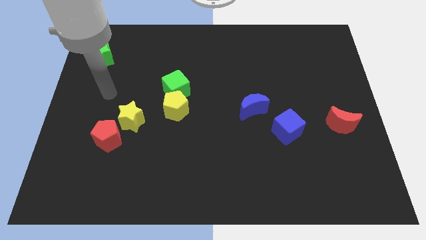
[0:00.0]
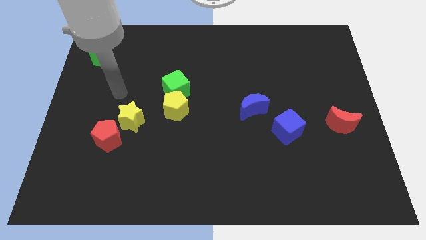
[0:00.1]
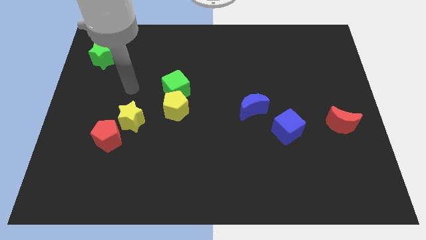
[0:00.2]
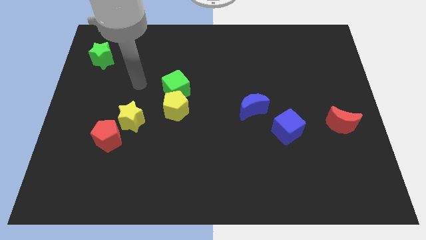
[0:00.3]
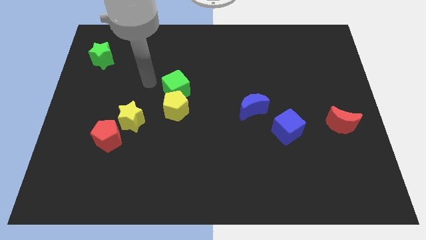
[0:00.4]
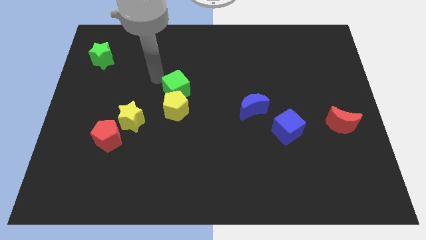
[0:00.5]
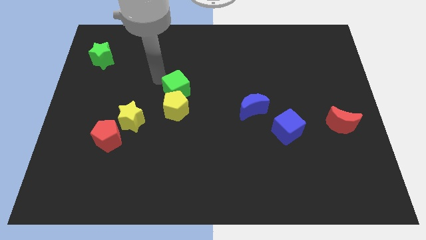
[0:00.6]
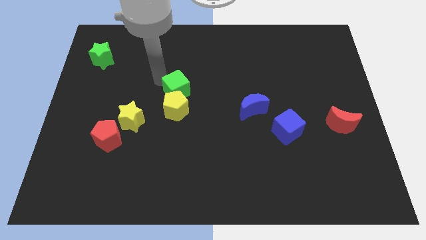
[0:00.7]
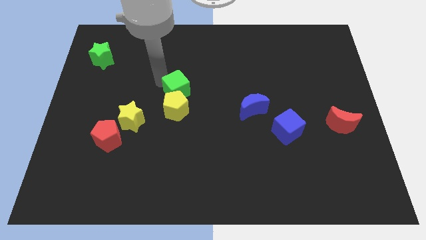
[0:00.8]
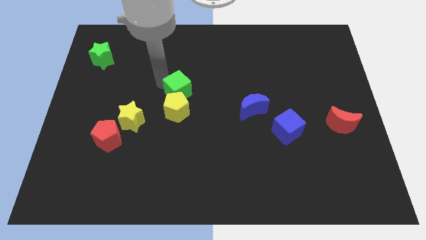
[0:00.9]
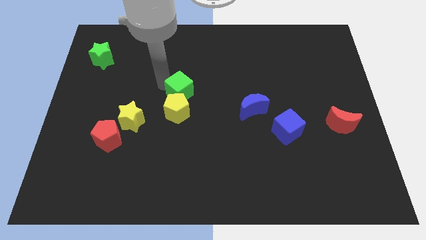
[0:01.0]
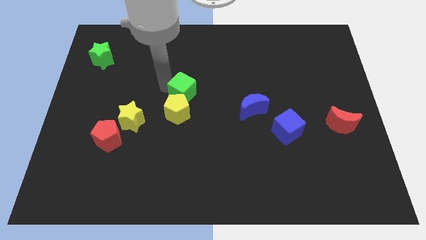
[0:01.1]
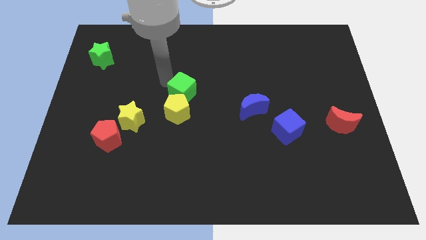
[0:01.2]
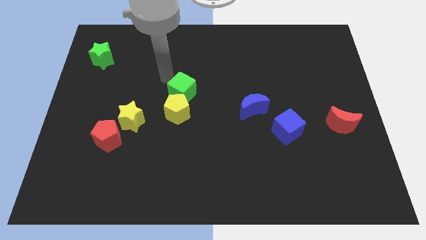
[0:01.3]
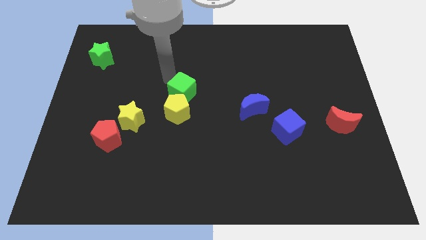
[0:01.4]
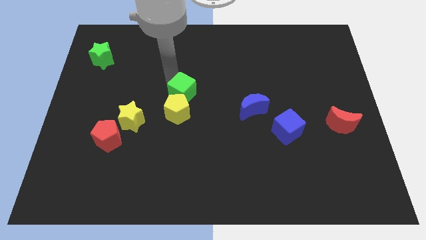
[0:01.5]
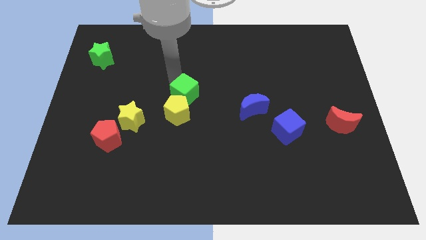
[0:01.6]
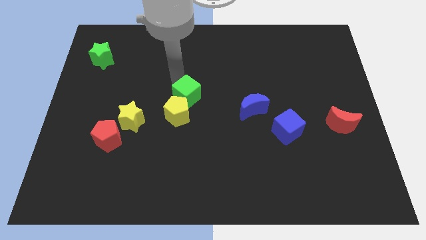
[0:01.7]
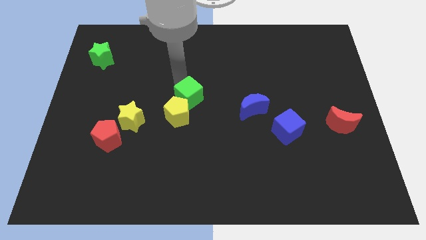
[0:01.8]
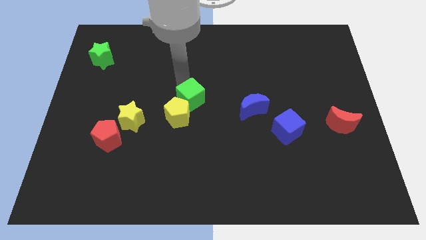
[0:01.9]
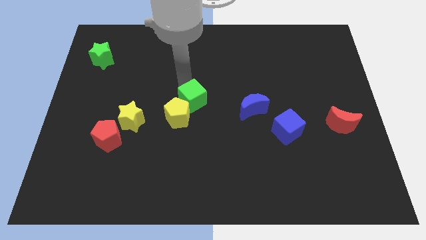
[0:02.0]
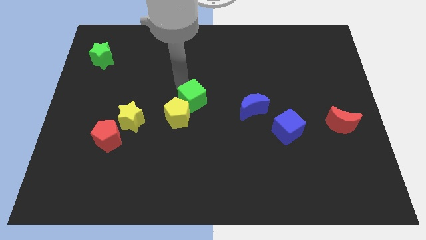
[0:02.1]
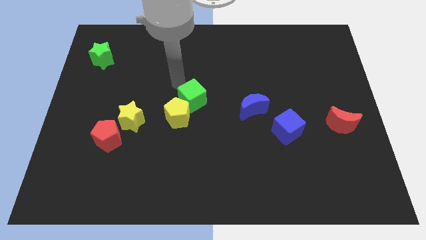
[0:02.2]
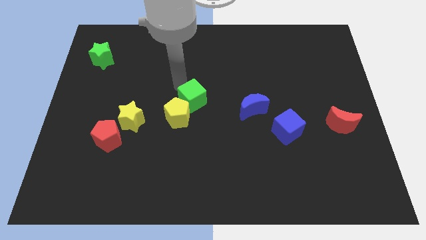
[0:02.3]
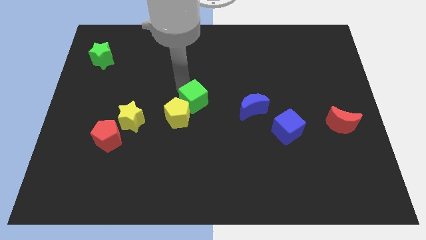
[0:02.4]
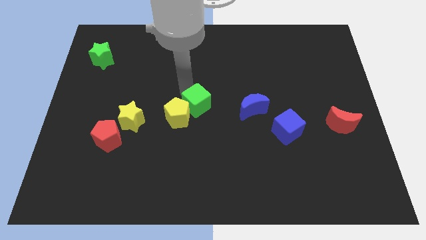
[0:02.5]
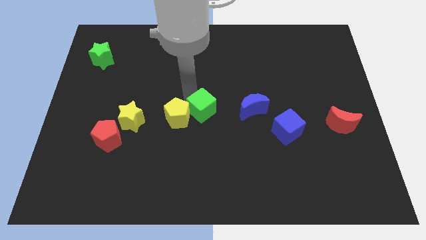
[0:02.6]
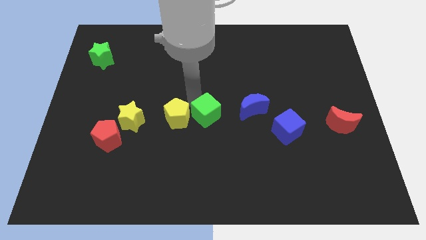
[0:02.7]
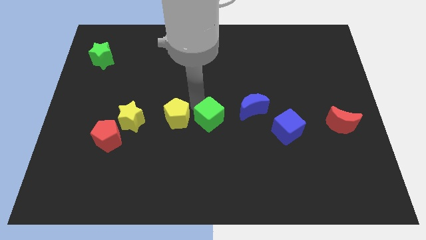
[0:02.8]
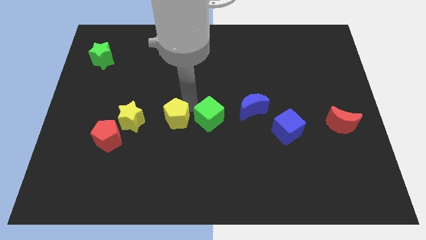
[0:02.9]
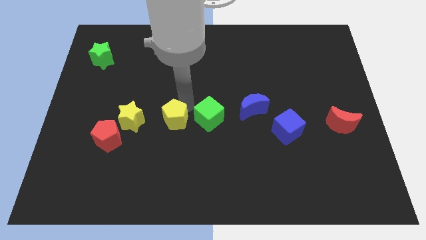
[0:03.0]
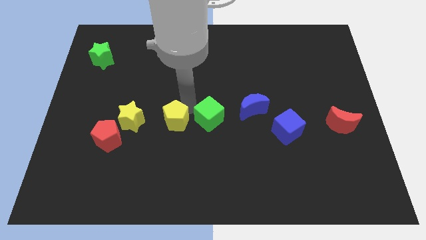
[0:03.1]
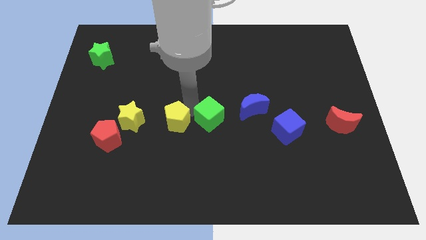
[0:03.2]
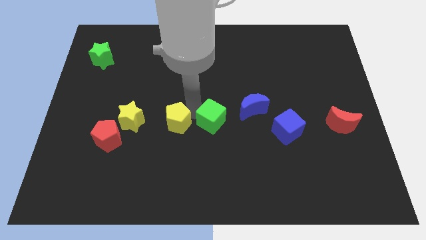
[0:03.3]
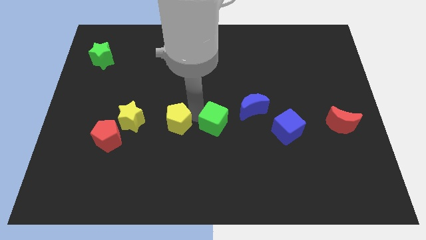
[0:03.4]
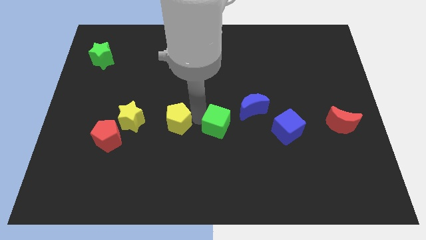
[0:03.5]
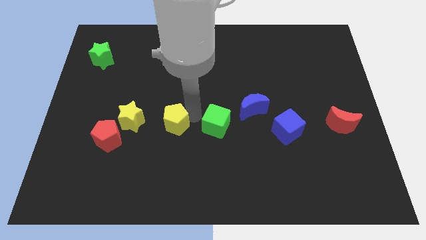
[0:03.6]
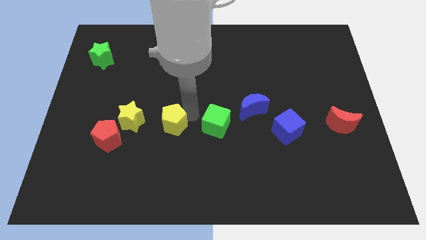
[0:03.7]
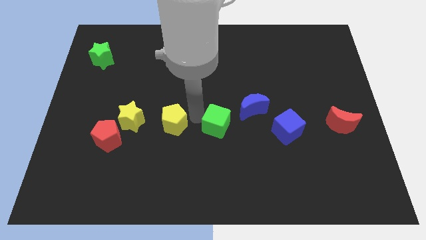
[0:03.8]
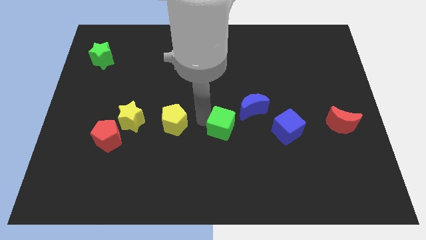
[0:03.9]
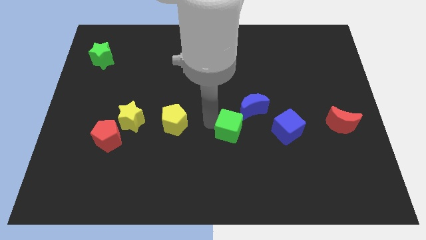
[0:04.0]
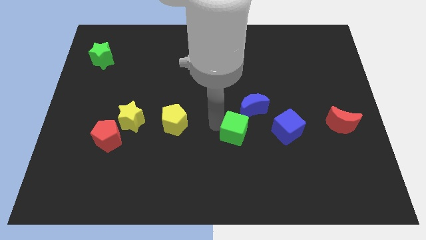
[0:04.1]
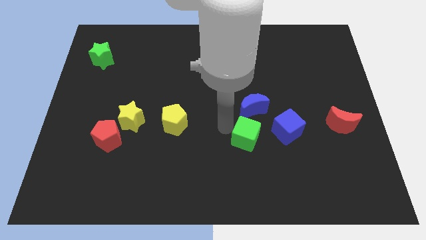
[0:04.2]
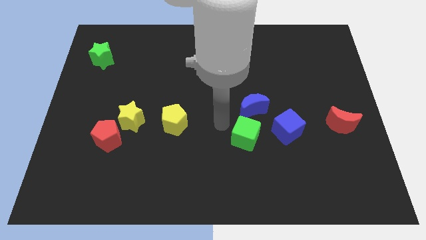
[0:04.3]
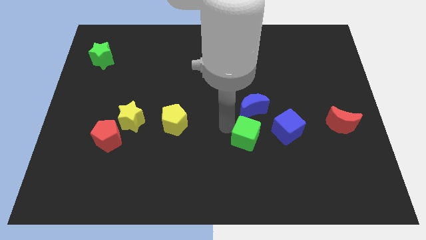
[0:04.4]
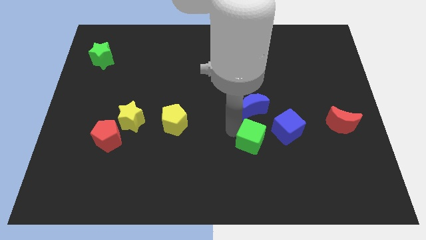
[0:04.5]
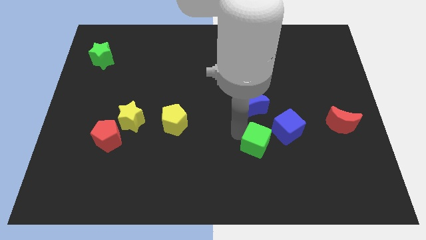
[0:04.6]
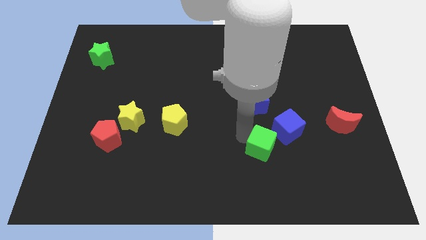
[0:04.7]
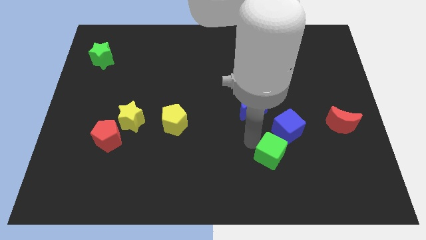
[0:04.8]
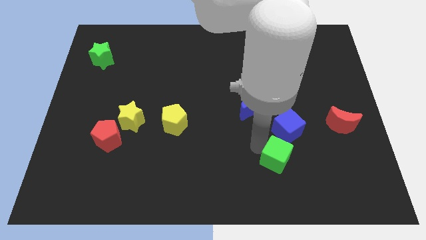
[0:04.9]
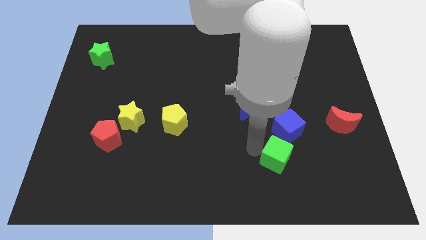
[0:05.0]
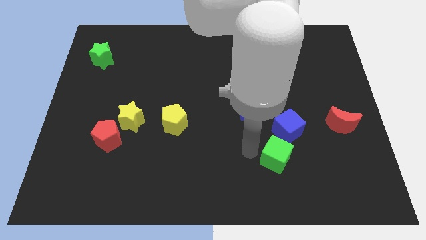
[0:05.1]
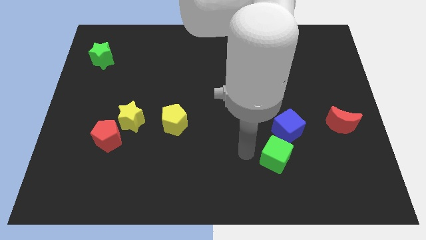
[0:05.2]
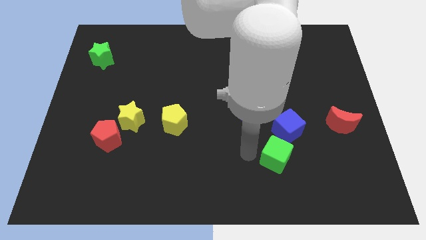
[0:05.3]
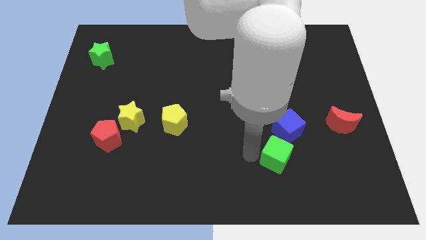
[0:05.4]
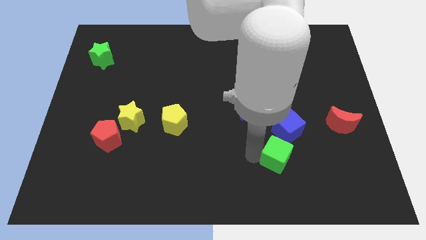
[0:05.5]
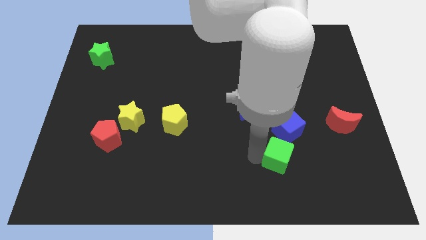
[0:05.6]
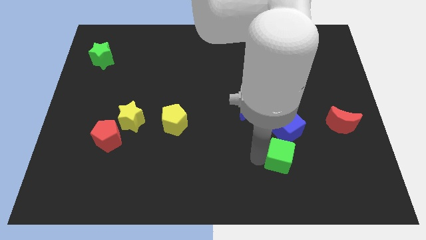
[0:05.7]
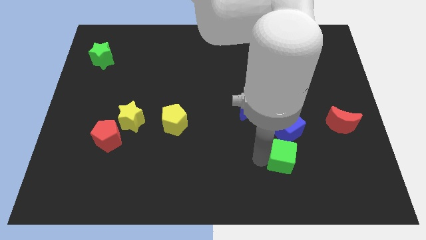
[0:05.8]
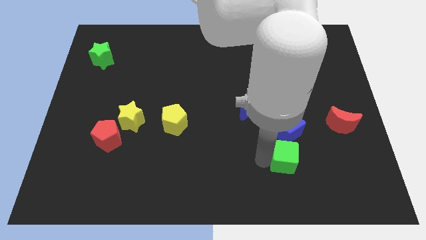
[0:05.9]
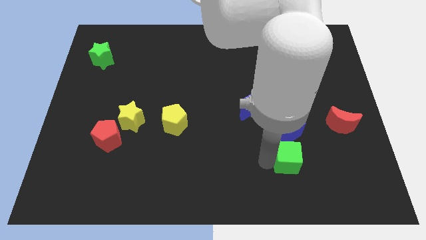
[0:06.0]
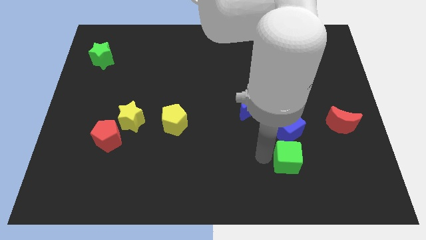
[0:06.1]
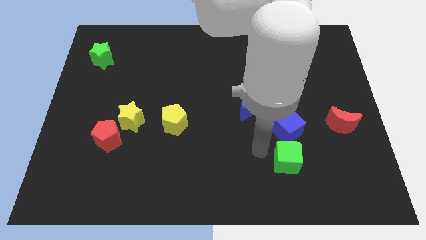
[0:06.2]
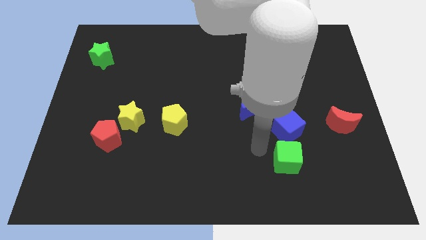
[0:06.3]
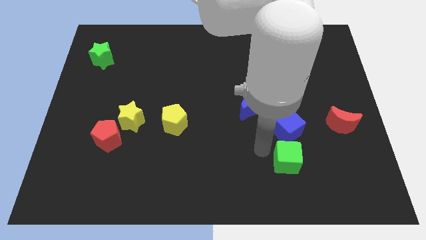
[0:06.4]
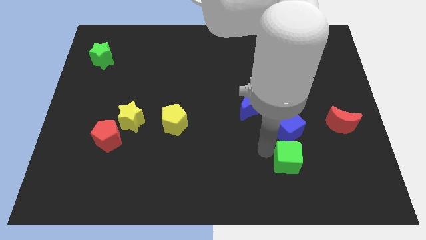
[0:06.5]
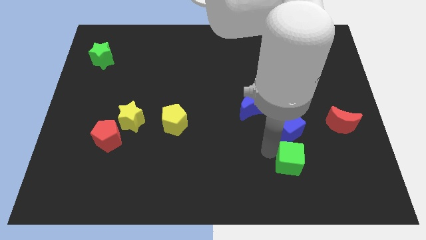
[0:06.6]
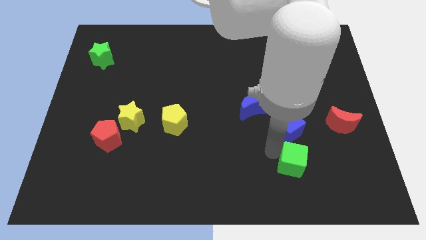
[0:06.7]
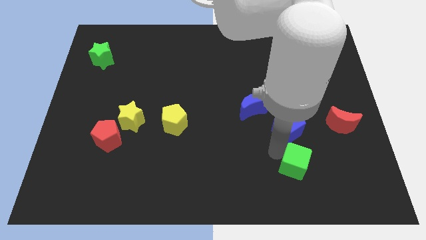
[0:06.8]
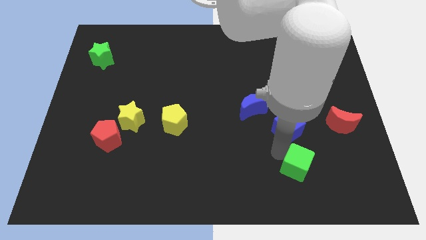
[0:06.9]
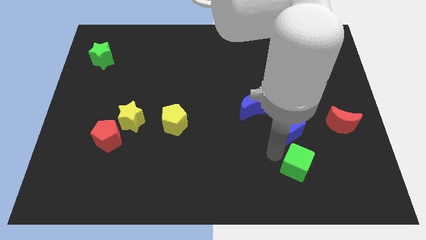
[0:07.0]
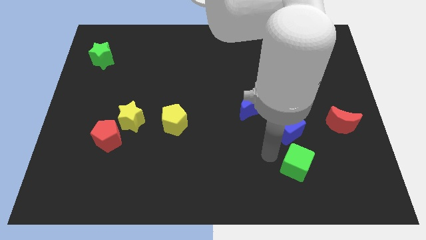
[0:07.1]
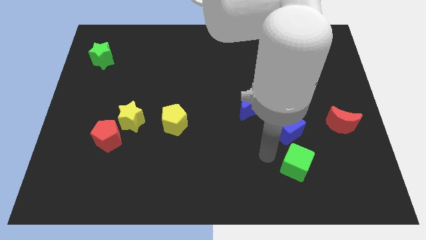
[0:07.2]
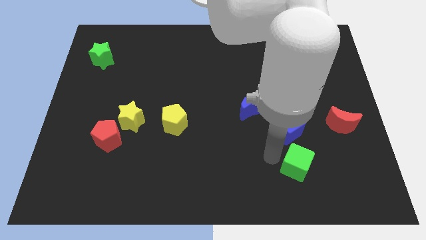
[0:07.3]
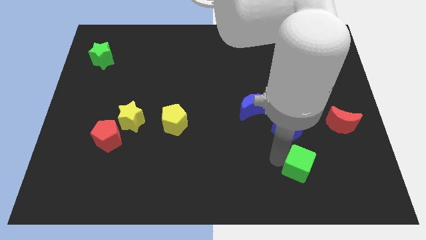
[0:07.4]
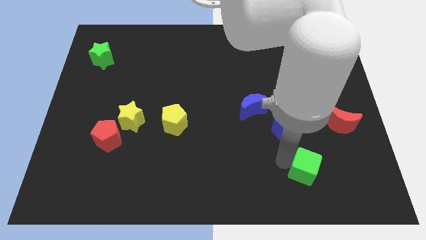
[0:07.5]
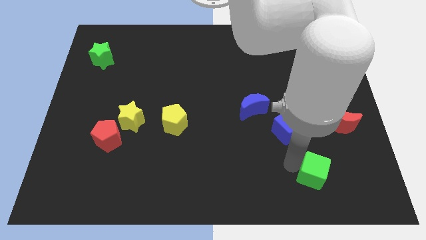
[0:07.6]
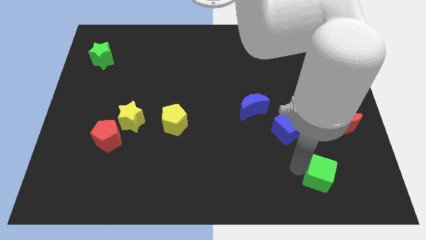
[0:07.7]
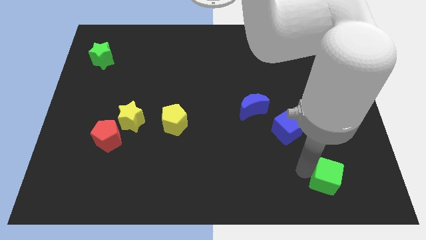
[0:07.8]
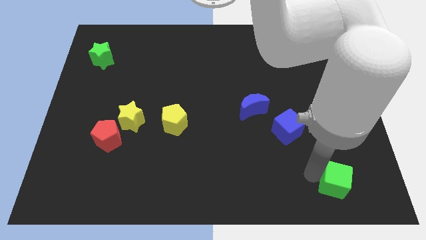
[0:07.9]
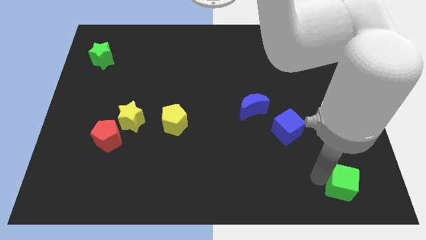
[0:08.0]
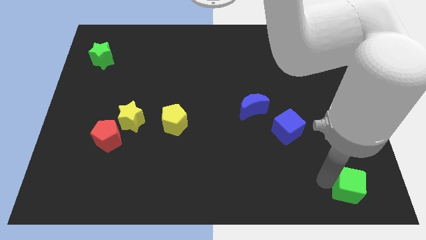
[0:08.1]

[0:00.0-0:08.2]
push the green cube to the bottom right
